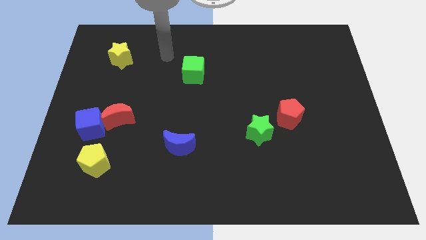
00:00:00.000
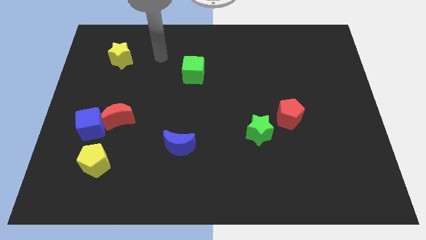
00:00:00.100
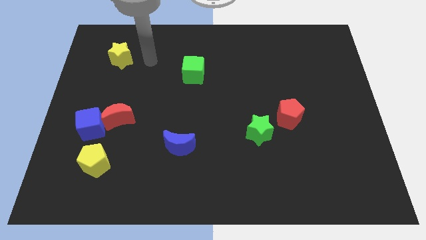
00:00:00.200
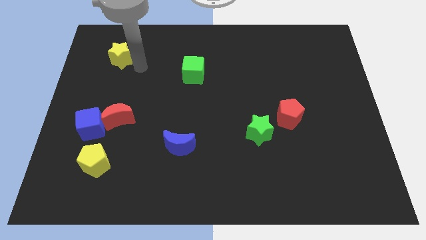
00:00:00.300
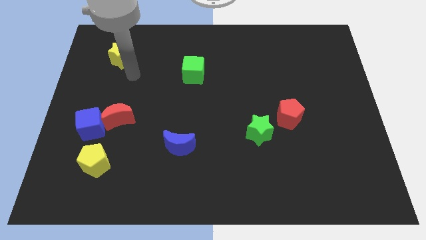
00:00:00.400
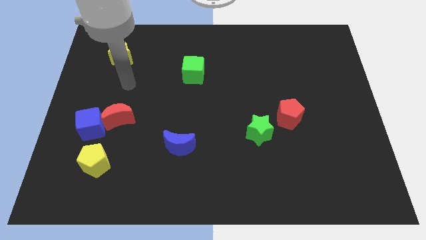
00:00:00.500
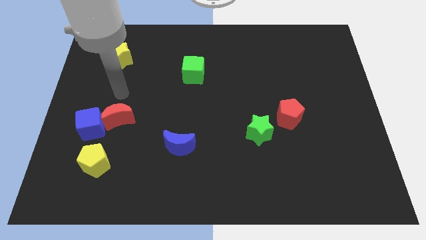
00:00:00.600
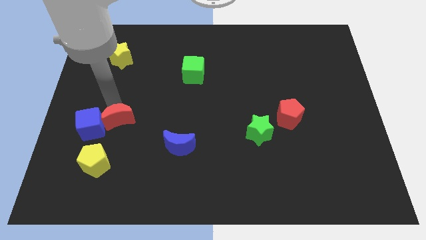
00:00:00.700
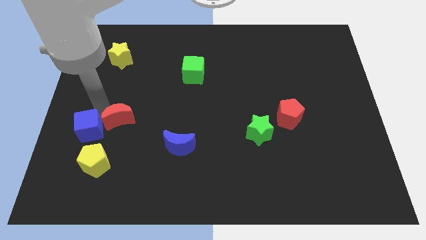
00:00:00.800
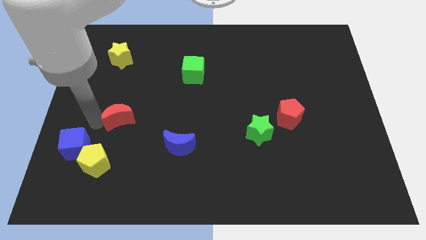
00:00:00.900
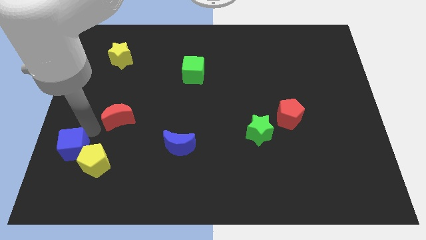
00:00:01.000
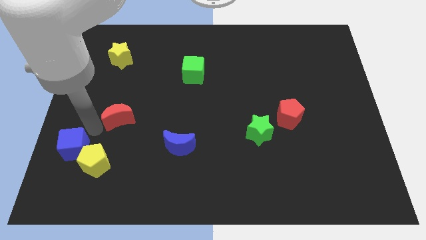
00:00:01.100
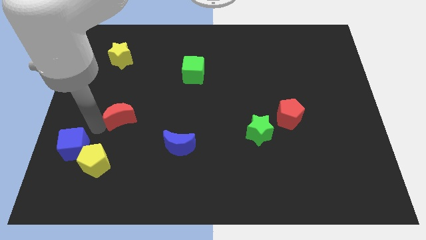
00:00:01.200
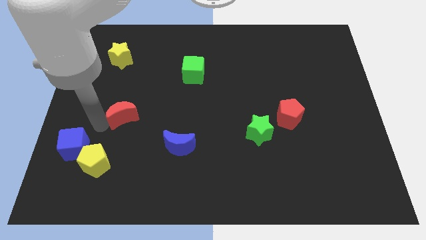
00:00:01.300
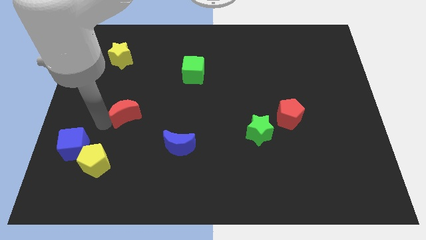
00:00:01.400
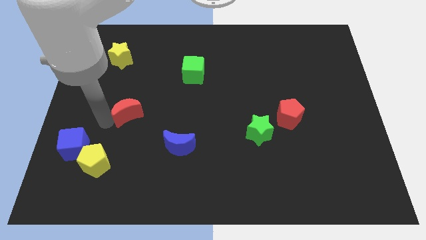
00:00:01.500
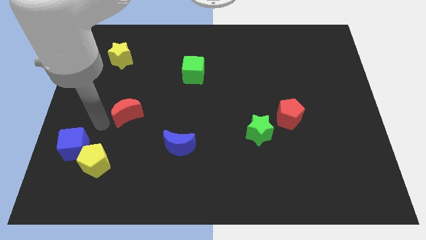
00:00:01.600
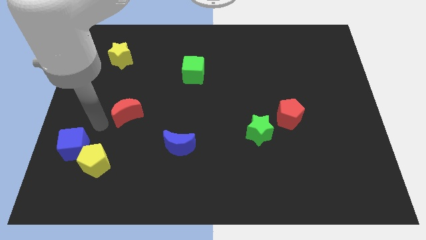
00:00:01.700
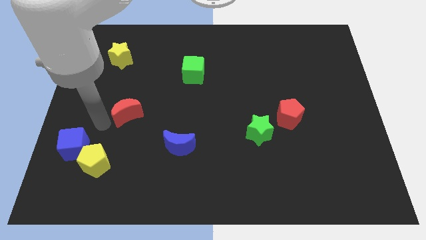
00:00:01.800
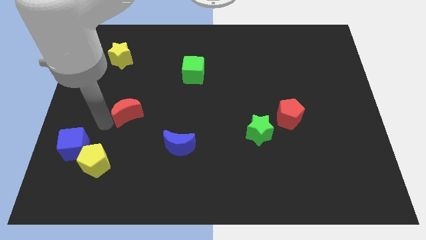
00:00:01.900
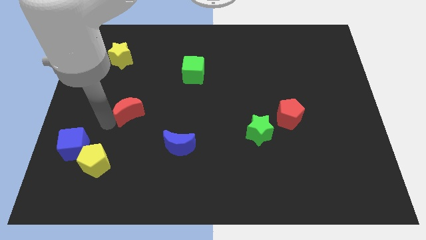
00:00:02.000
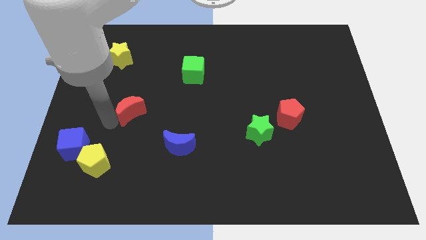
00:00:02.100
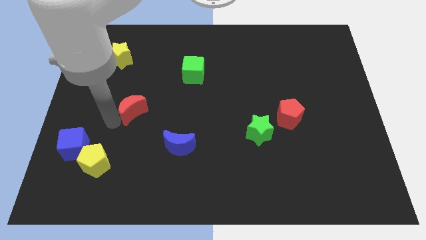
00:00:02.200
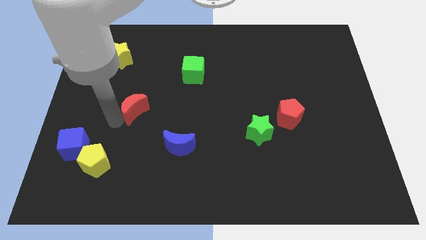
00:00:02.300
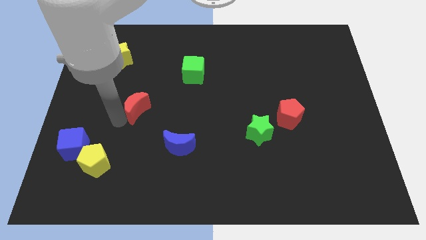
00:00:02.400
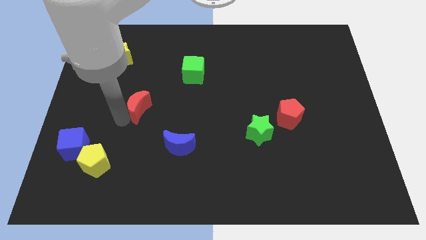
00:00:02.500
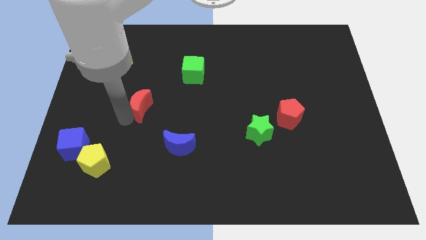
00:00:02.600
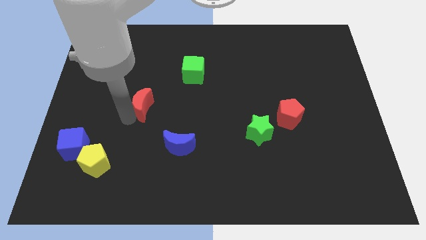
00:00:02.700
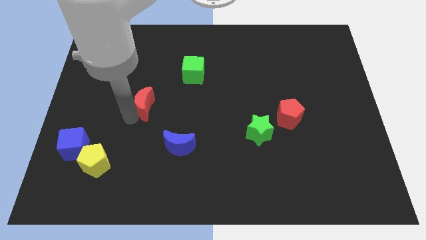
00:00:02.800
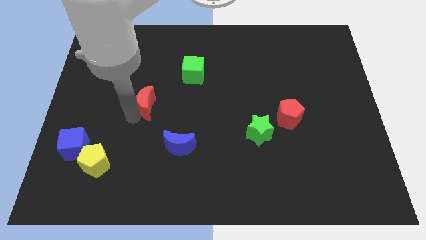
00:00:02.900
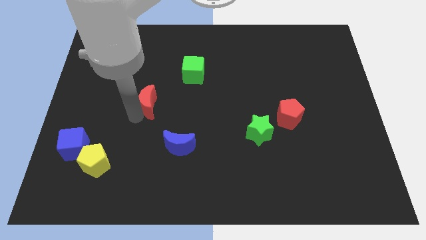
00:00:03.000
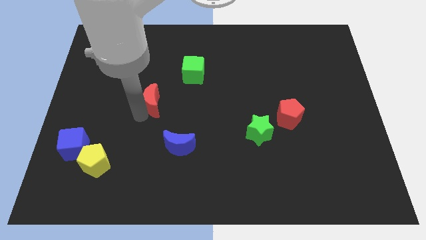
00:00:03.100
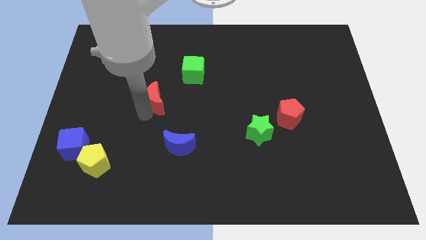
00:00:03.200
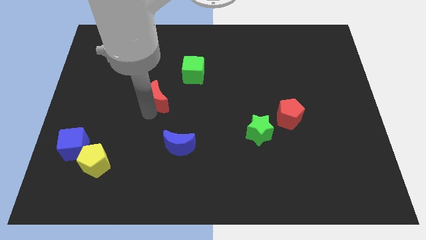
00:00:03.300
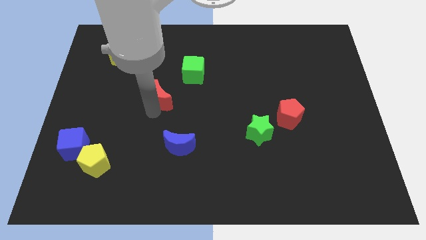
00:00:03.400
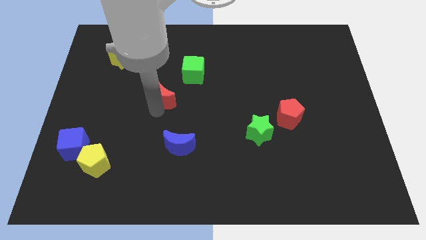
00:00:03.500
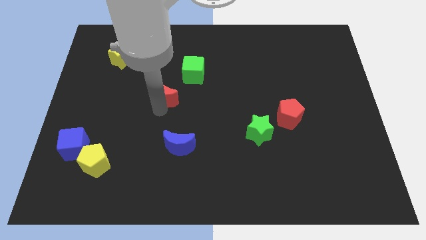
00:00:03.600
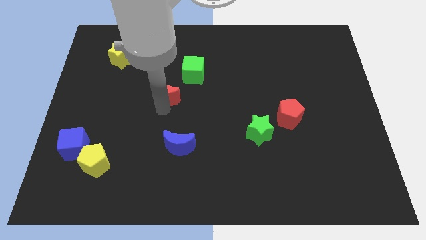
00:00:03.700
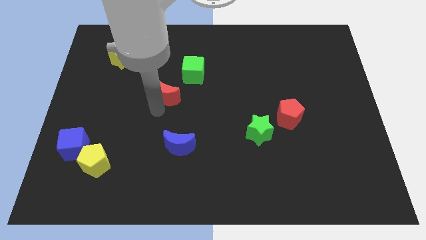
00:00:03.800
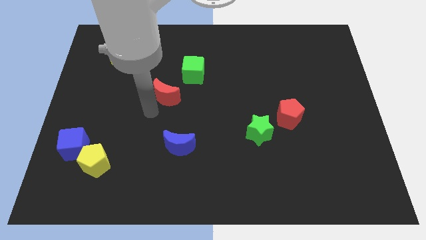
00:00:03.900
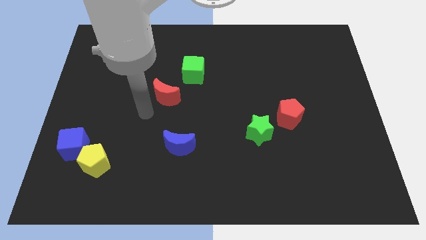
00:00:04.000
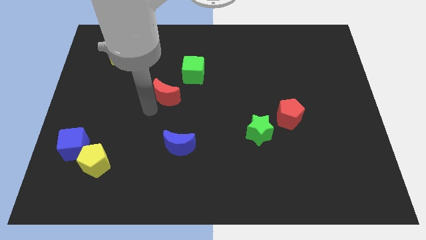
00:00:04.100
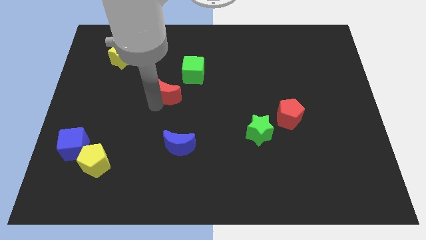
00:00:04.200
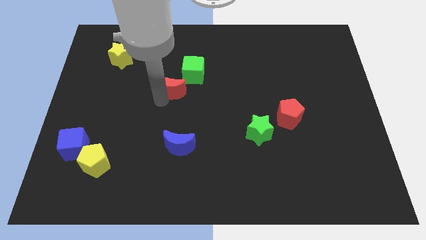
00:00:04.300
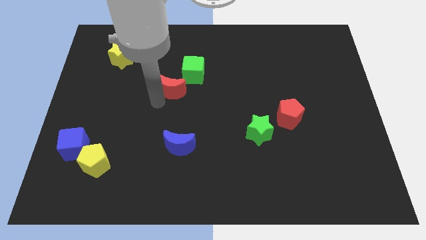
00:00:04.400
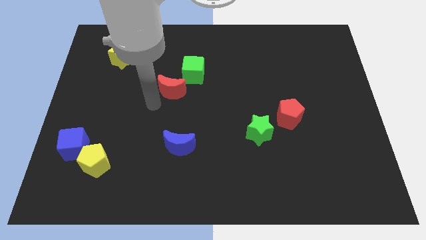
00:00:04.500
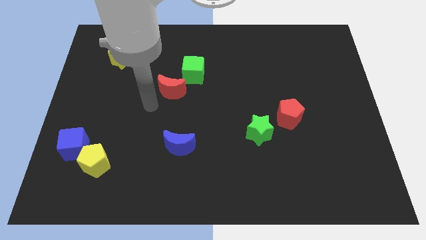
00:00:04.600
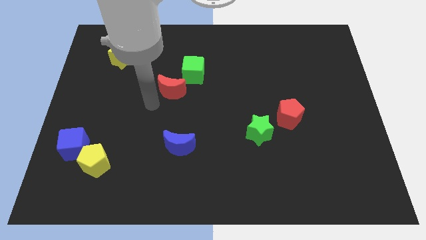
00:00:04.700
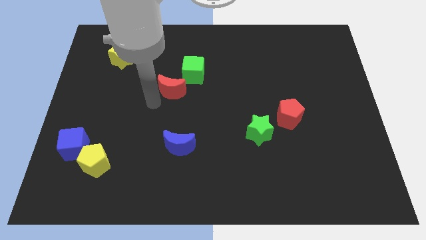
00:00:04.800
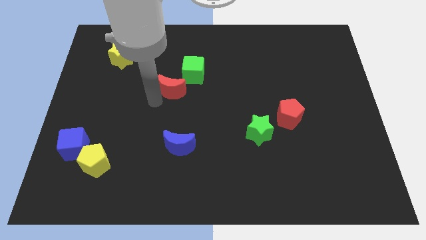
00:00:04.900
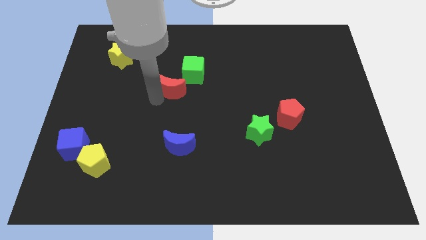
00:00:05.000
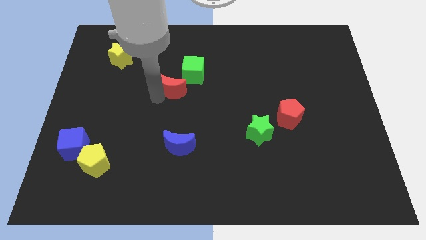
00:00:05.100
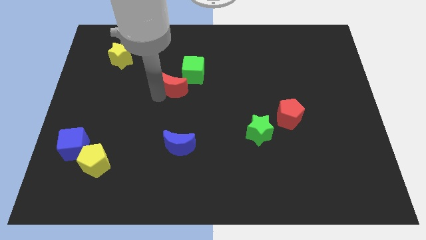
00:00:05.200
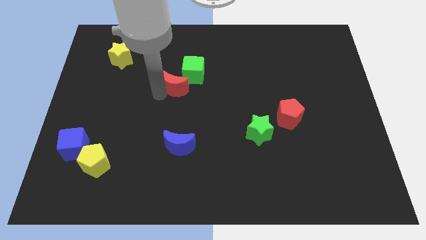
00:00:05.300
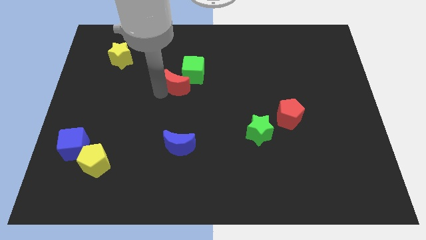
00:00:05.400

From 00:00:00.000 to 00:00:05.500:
push the red moon to the green cube

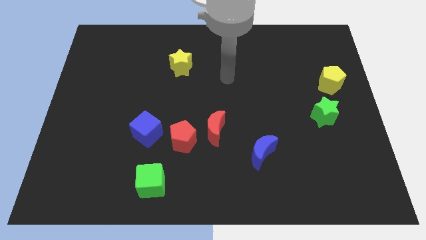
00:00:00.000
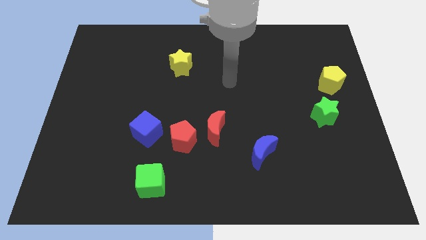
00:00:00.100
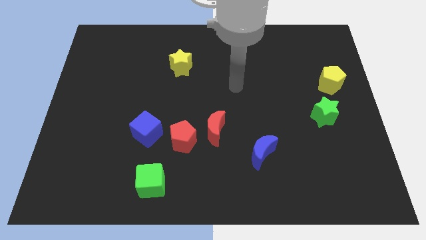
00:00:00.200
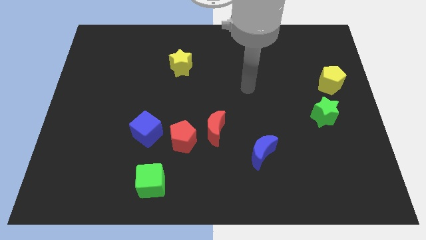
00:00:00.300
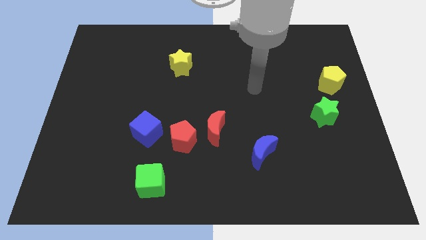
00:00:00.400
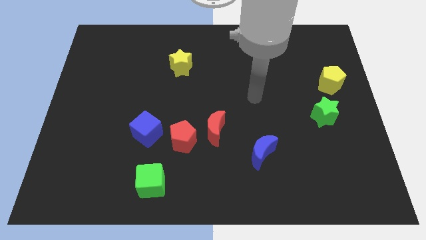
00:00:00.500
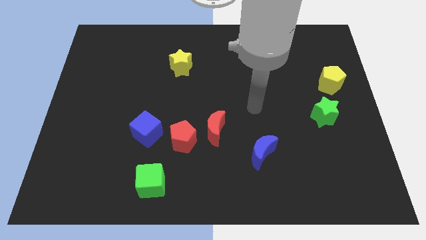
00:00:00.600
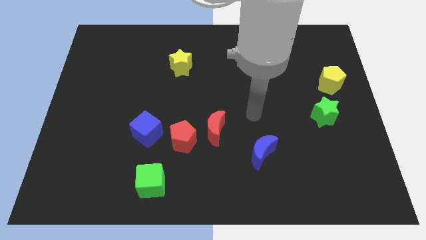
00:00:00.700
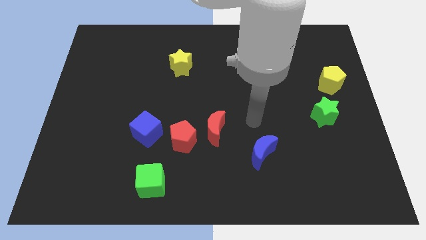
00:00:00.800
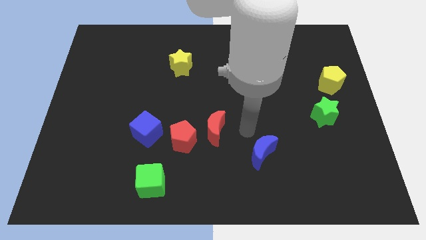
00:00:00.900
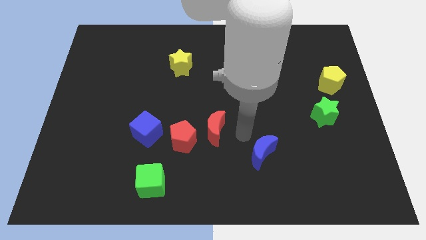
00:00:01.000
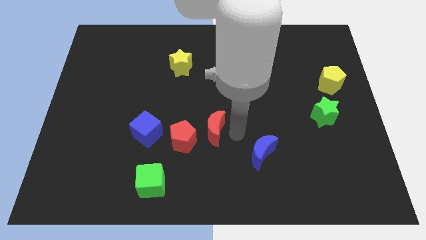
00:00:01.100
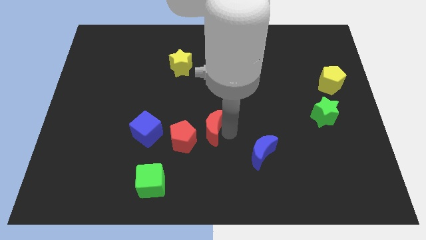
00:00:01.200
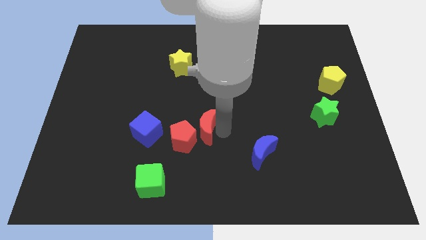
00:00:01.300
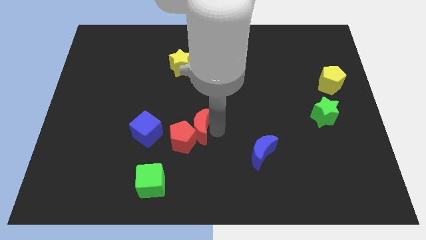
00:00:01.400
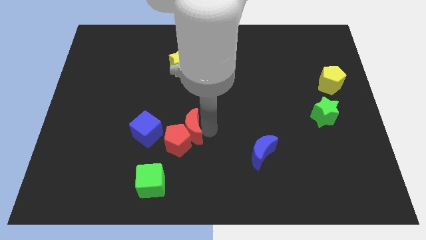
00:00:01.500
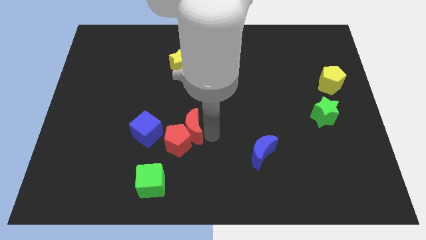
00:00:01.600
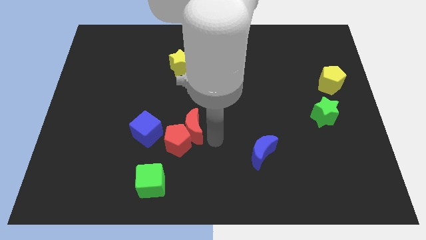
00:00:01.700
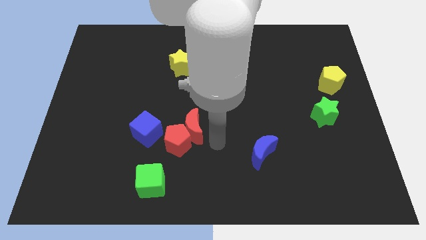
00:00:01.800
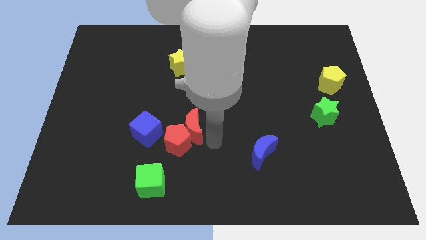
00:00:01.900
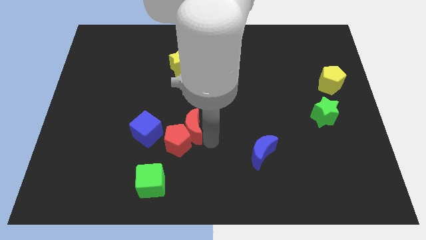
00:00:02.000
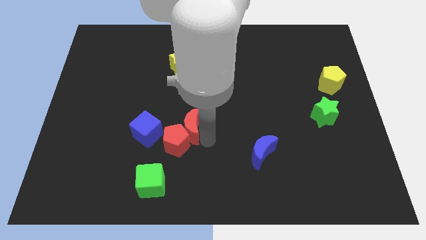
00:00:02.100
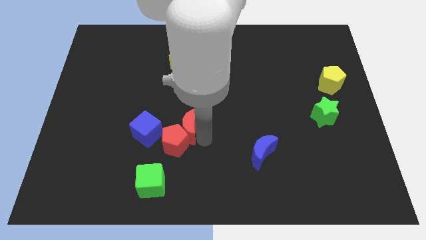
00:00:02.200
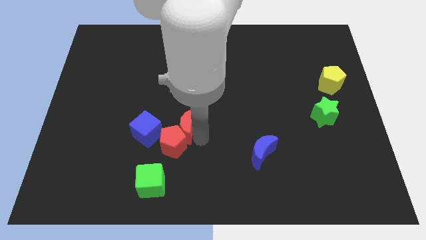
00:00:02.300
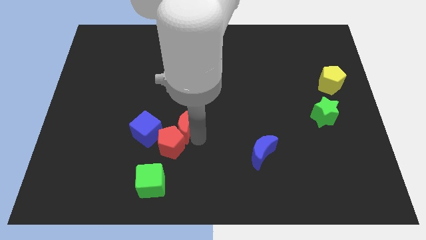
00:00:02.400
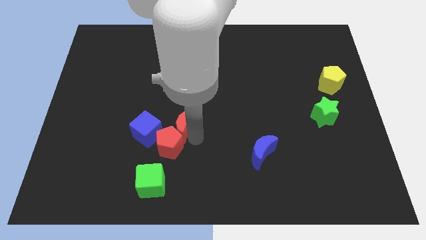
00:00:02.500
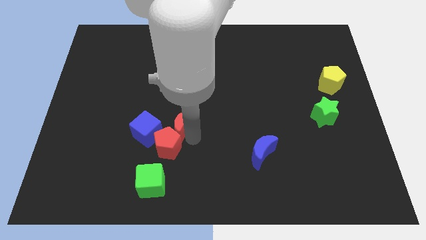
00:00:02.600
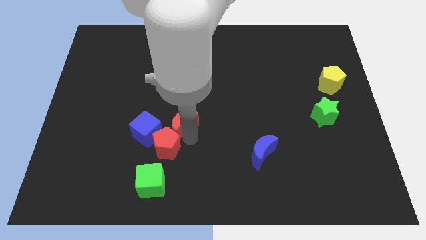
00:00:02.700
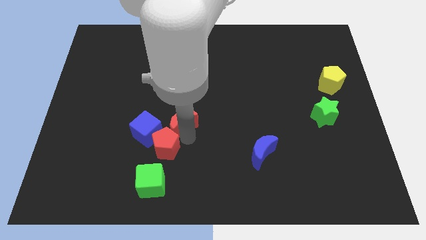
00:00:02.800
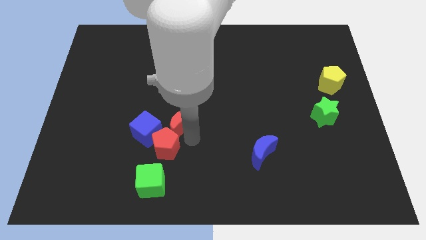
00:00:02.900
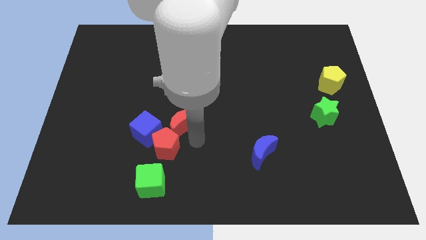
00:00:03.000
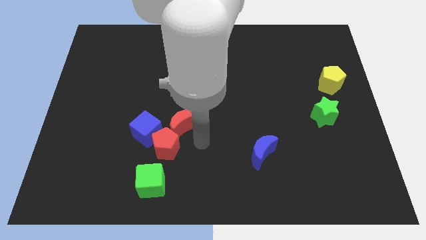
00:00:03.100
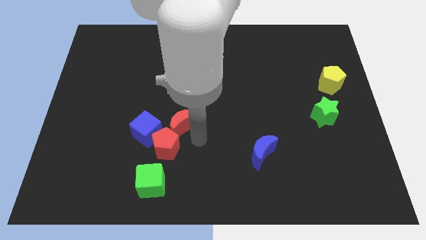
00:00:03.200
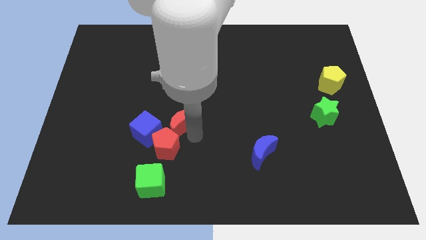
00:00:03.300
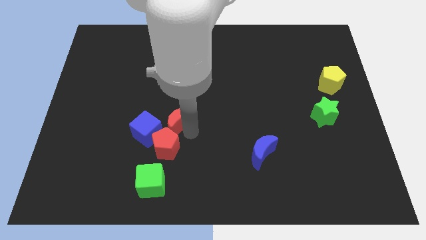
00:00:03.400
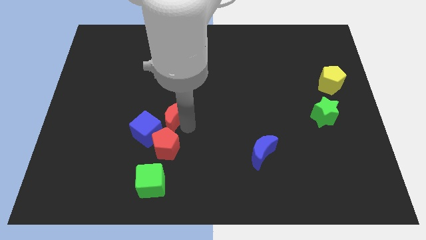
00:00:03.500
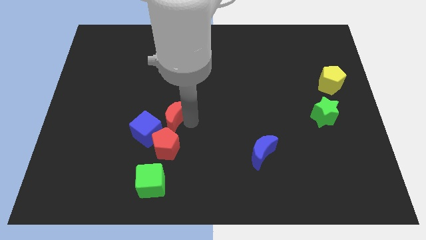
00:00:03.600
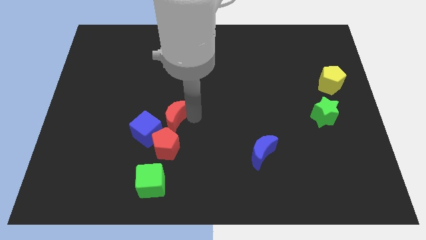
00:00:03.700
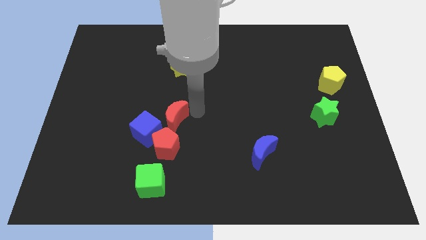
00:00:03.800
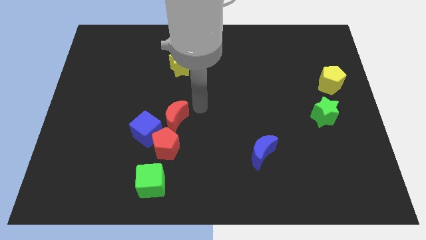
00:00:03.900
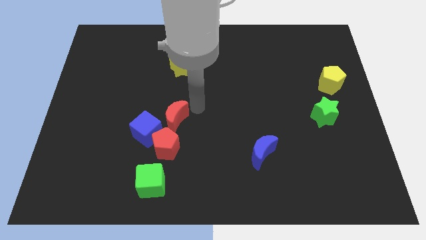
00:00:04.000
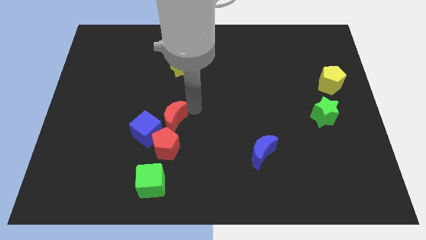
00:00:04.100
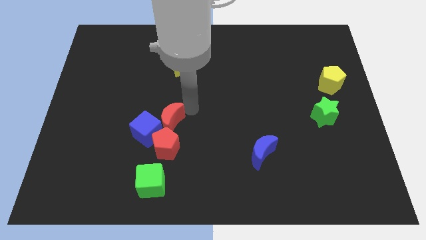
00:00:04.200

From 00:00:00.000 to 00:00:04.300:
slide the red moon close to the blue cube
